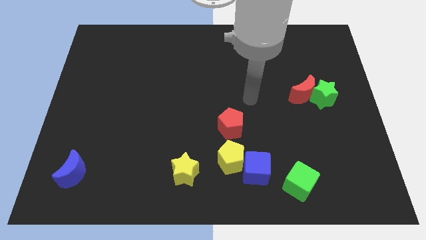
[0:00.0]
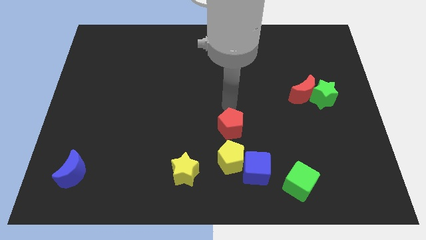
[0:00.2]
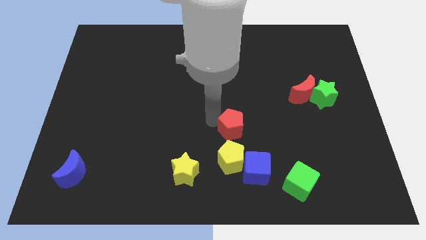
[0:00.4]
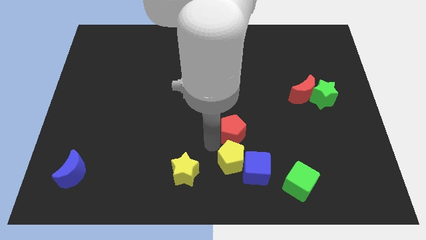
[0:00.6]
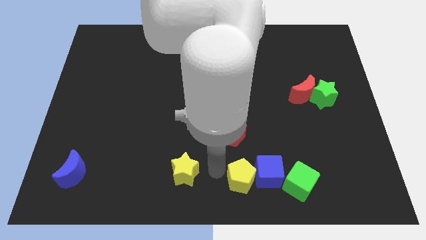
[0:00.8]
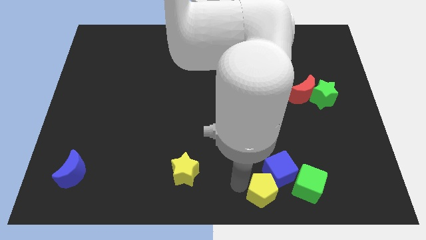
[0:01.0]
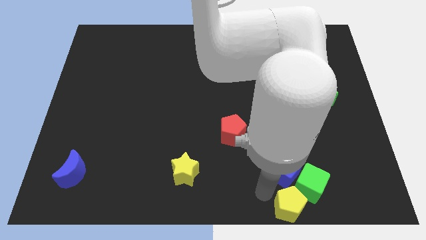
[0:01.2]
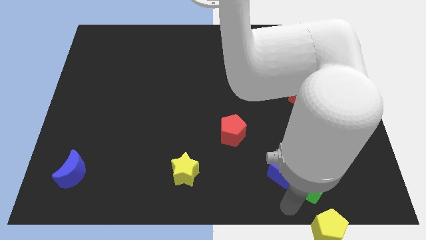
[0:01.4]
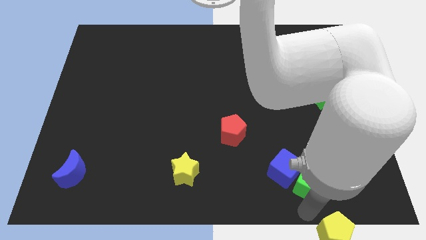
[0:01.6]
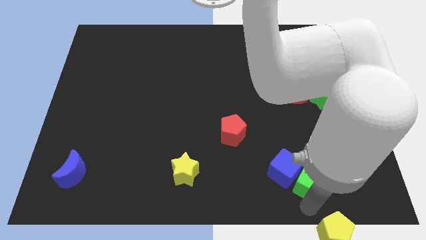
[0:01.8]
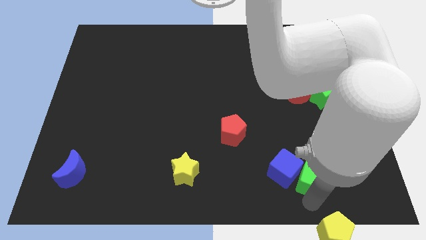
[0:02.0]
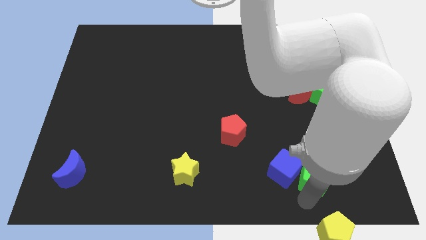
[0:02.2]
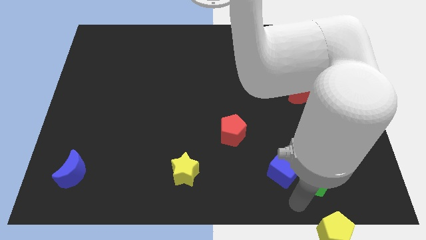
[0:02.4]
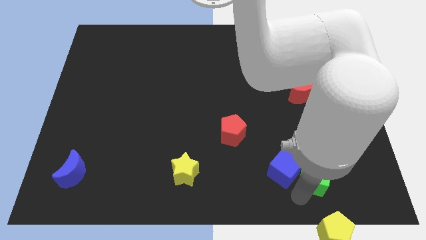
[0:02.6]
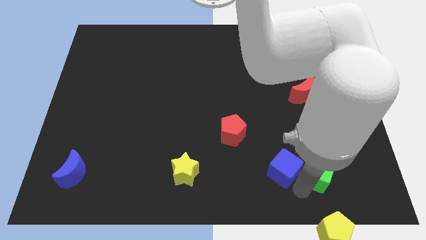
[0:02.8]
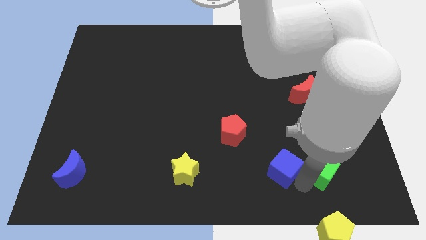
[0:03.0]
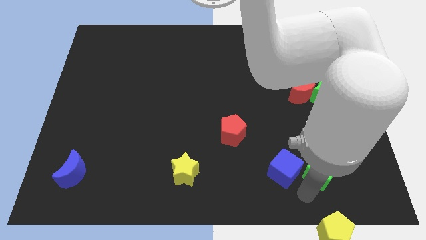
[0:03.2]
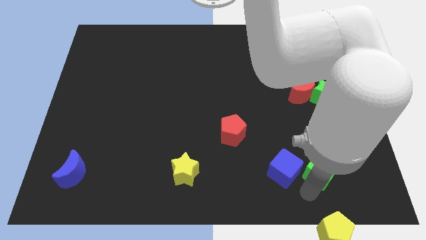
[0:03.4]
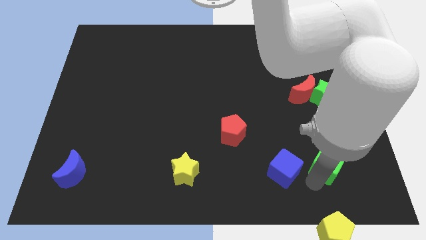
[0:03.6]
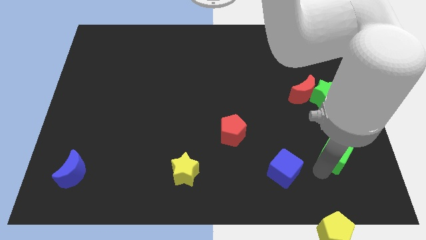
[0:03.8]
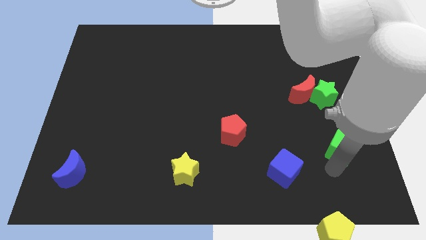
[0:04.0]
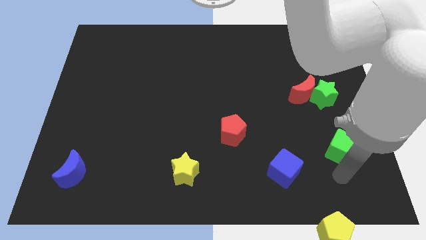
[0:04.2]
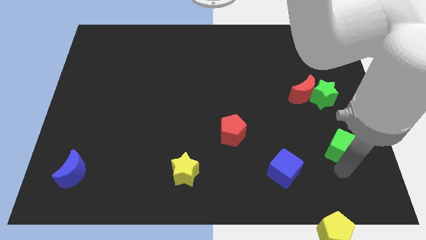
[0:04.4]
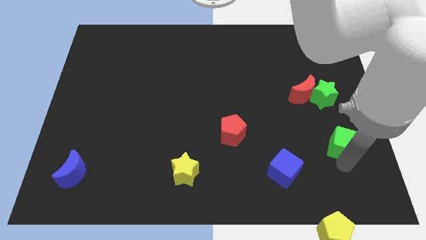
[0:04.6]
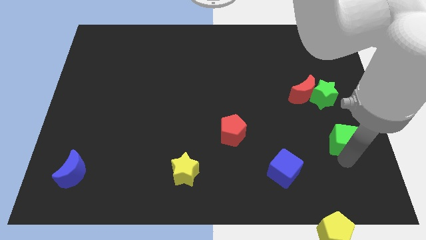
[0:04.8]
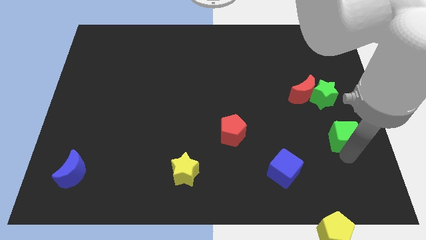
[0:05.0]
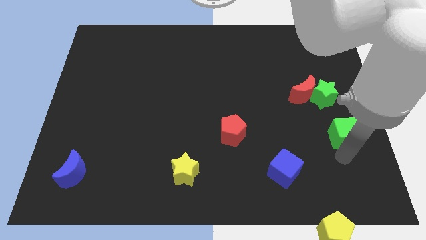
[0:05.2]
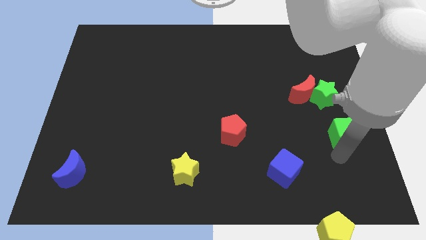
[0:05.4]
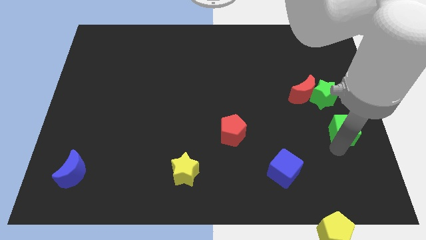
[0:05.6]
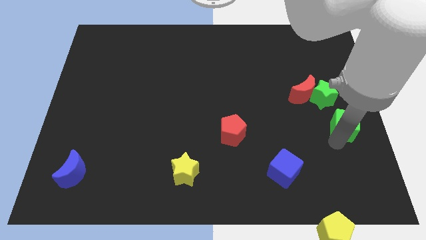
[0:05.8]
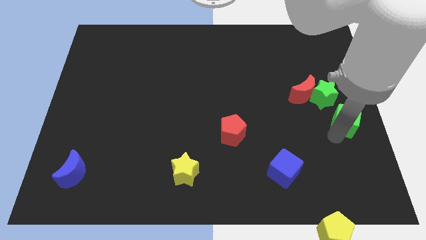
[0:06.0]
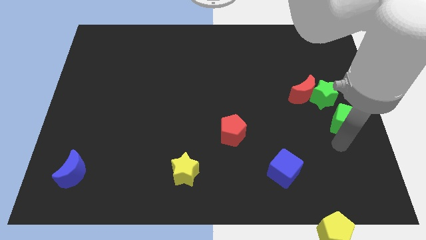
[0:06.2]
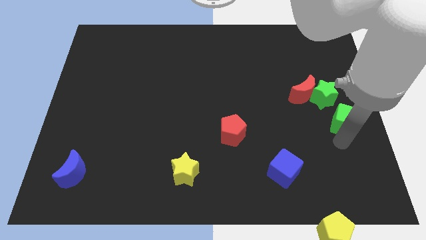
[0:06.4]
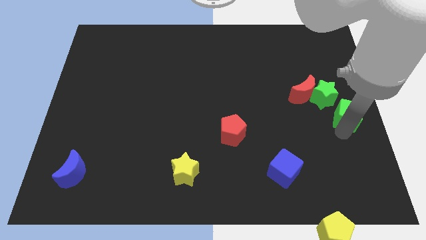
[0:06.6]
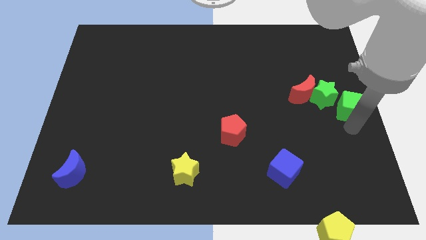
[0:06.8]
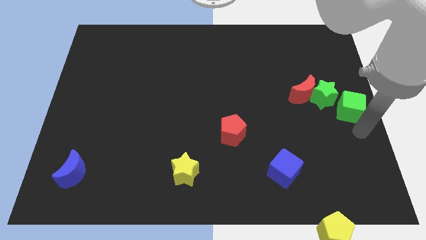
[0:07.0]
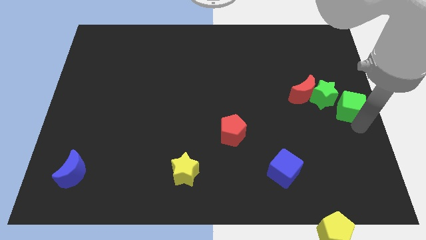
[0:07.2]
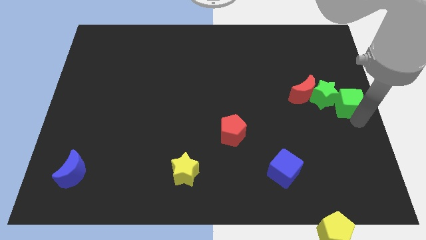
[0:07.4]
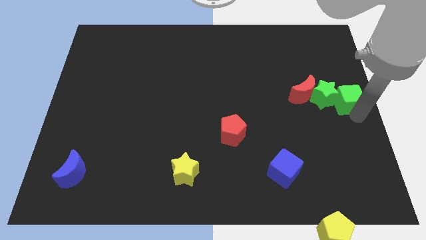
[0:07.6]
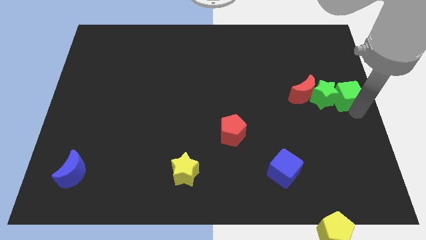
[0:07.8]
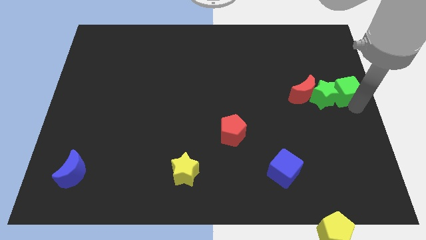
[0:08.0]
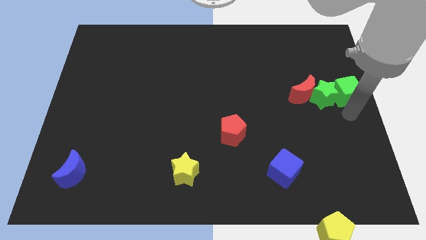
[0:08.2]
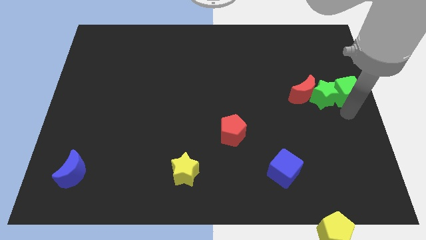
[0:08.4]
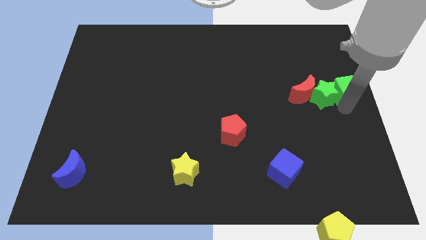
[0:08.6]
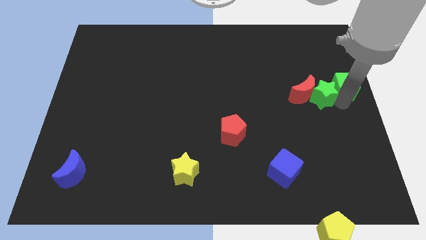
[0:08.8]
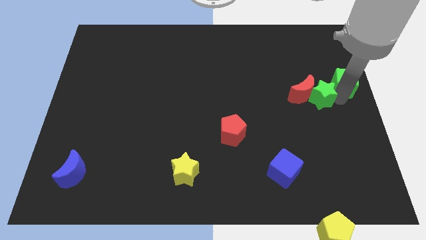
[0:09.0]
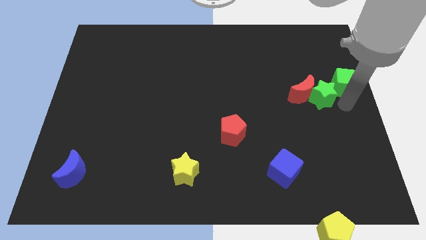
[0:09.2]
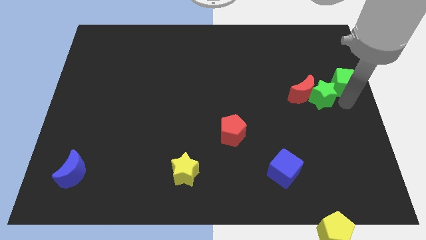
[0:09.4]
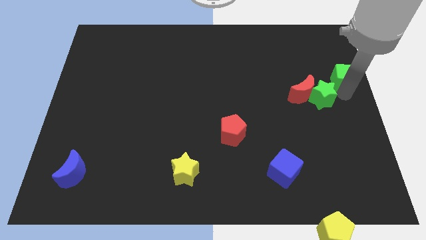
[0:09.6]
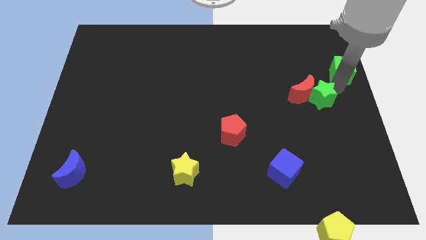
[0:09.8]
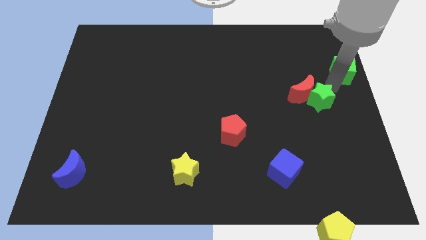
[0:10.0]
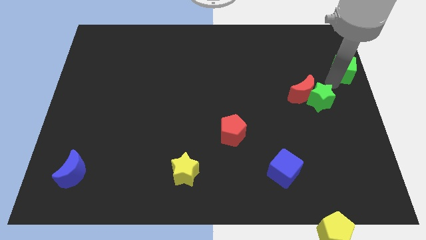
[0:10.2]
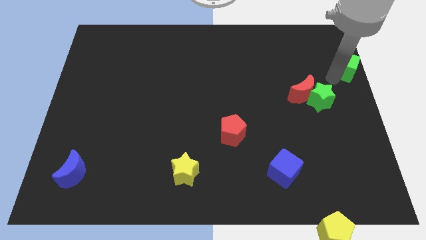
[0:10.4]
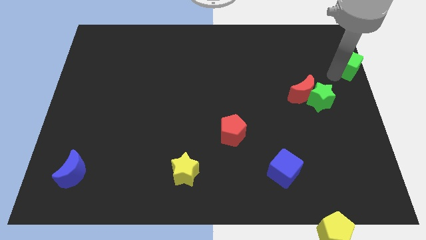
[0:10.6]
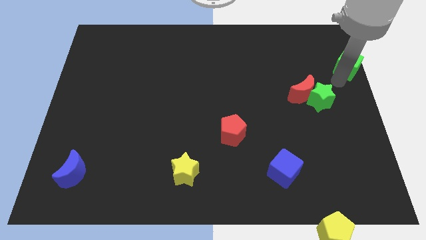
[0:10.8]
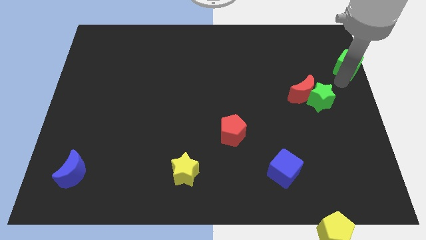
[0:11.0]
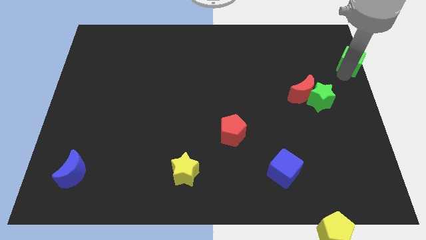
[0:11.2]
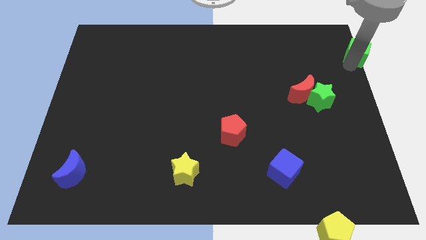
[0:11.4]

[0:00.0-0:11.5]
push the green cube to the top right
